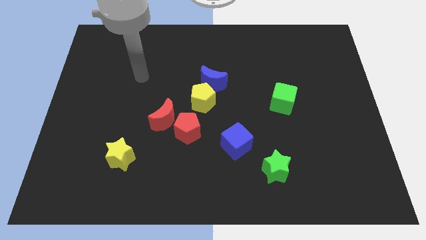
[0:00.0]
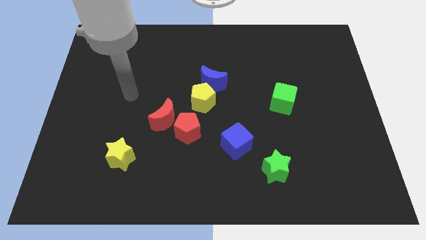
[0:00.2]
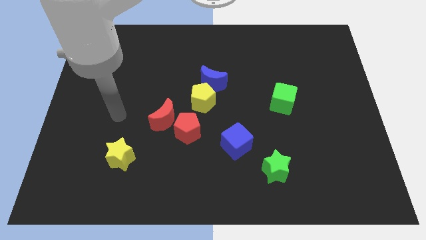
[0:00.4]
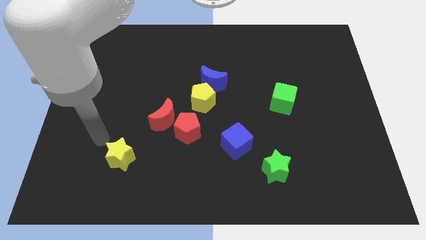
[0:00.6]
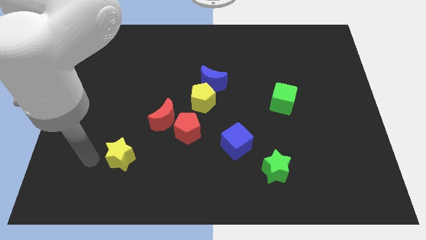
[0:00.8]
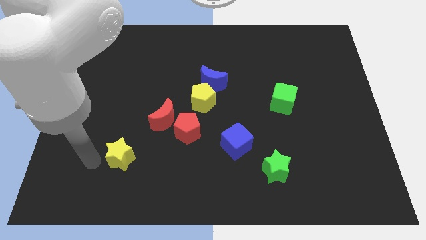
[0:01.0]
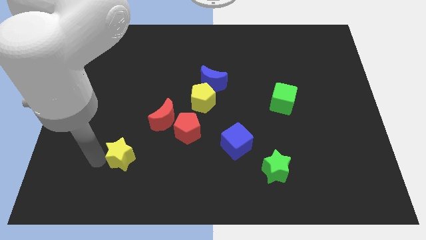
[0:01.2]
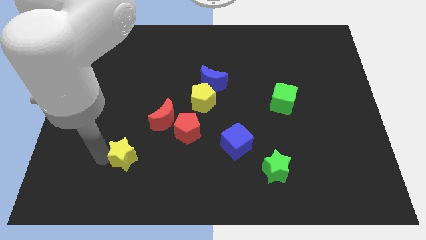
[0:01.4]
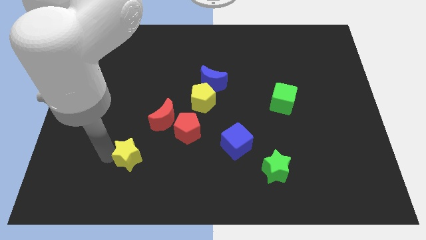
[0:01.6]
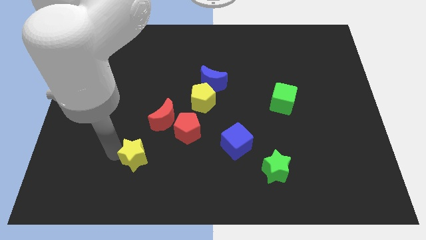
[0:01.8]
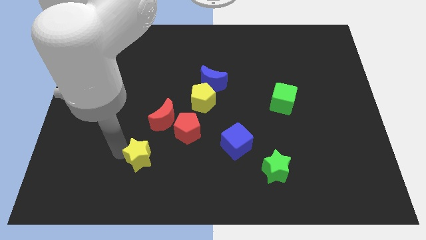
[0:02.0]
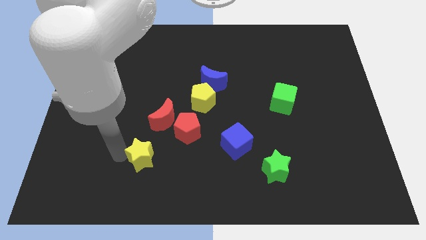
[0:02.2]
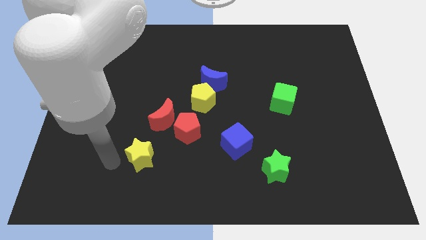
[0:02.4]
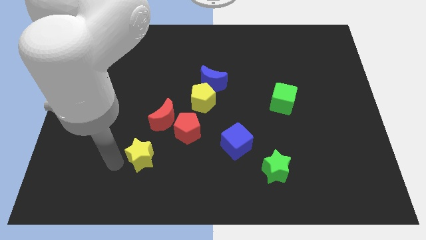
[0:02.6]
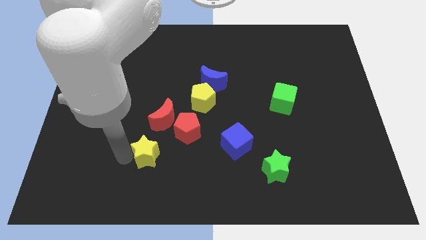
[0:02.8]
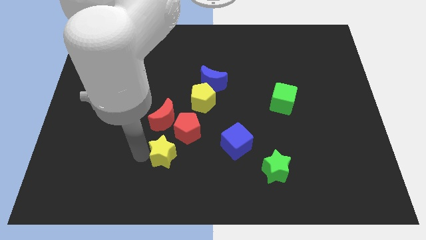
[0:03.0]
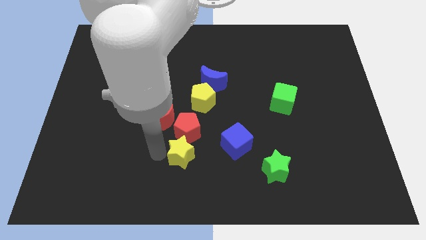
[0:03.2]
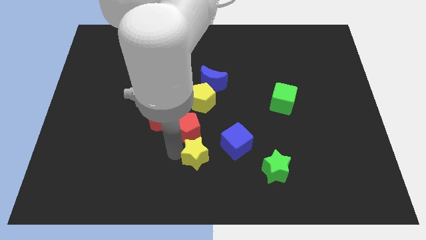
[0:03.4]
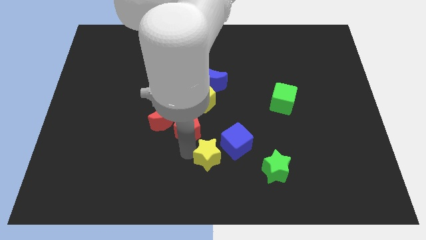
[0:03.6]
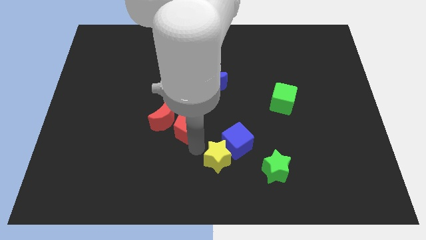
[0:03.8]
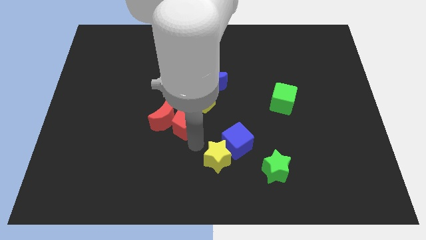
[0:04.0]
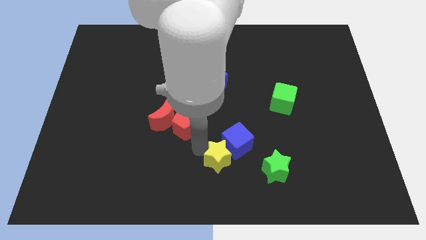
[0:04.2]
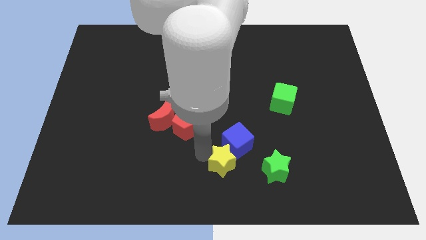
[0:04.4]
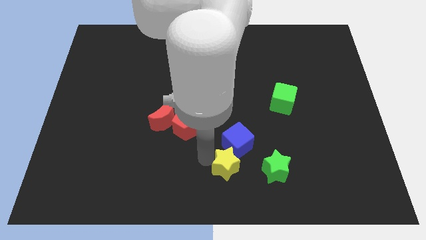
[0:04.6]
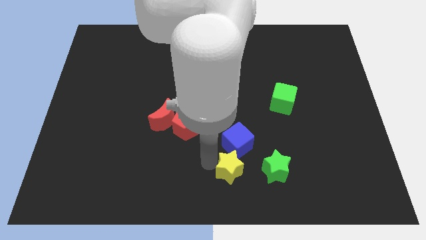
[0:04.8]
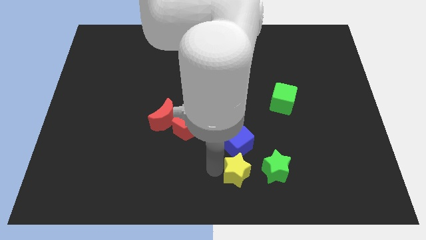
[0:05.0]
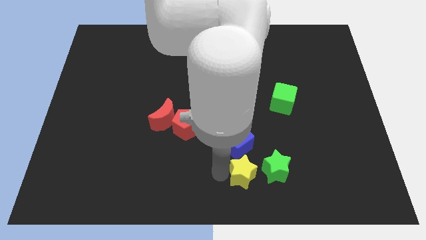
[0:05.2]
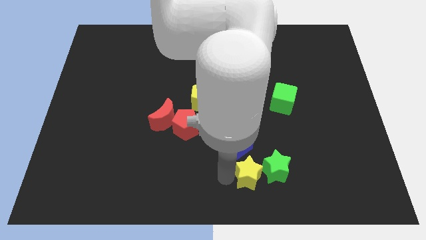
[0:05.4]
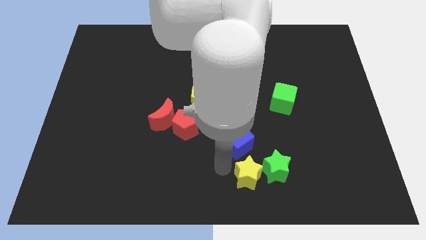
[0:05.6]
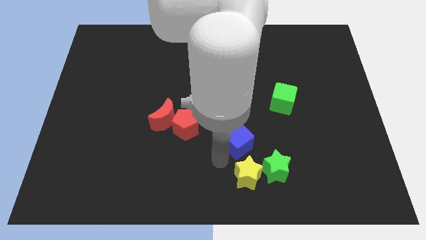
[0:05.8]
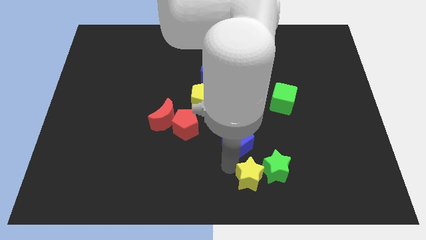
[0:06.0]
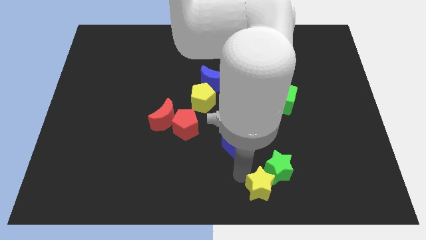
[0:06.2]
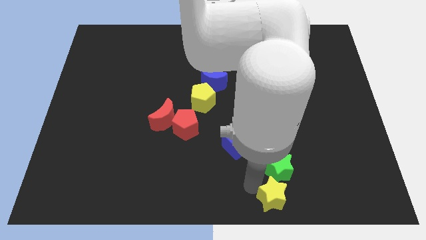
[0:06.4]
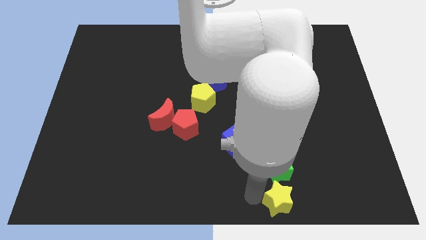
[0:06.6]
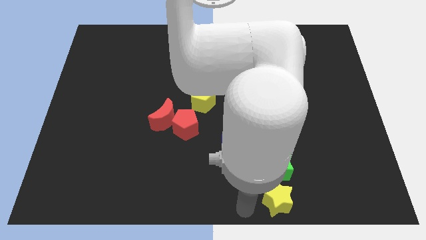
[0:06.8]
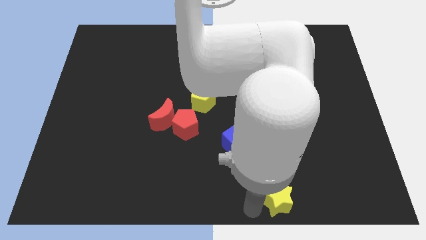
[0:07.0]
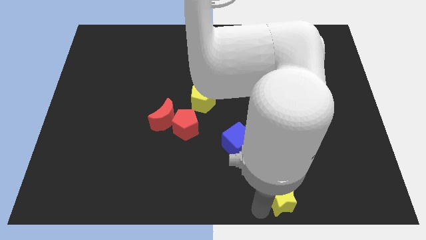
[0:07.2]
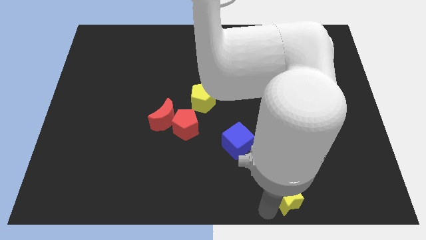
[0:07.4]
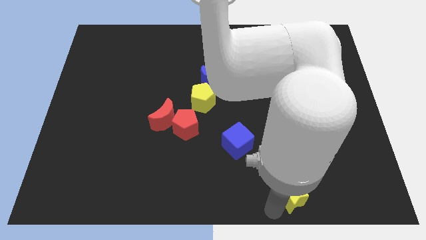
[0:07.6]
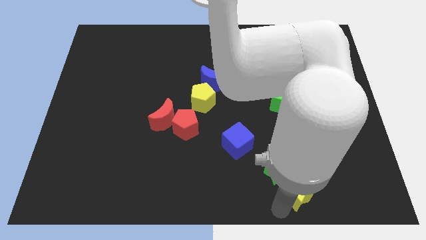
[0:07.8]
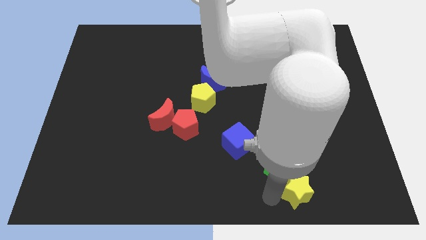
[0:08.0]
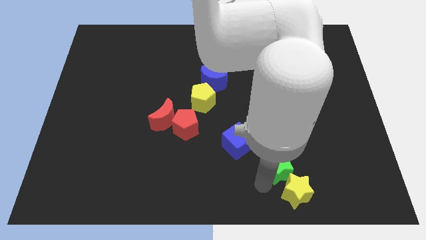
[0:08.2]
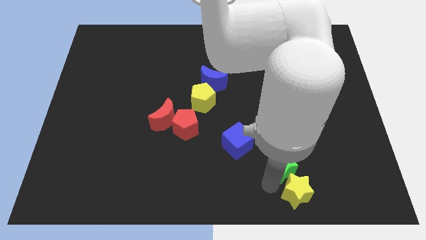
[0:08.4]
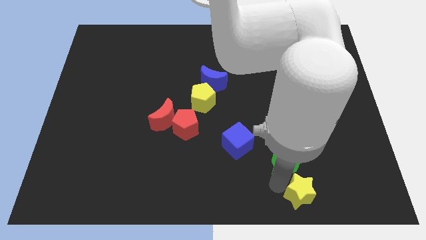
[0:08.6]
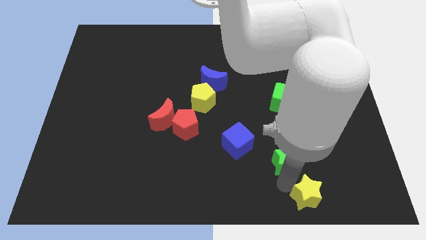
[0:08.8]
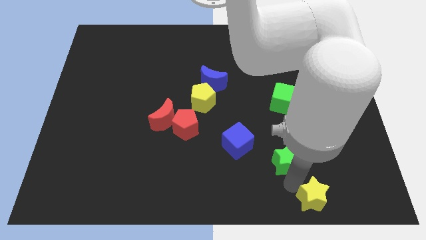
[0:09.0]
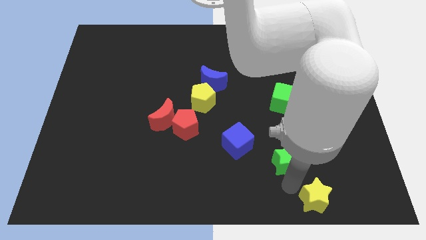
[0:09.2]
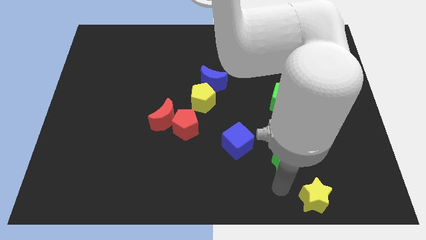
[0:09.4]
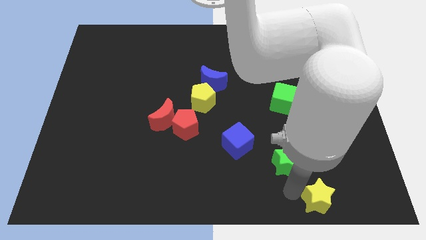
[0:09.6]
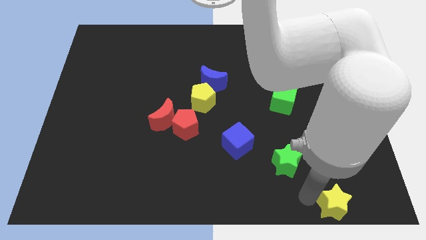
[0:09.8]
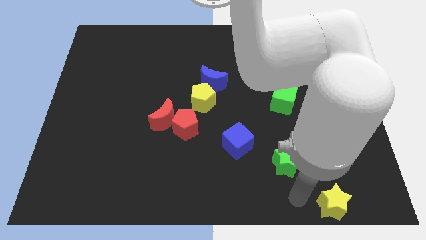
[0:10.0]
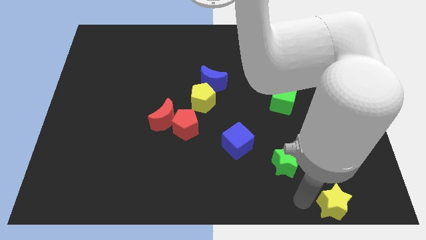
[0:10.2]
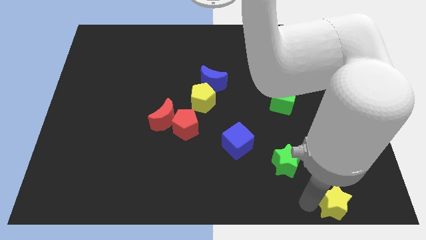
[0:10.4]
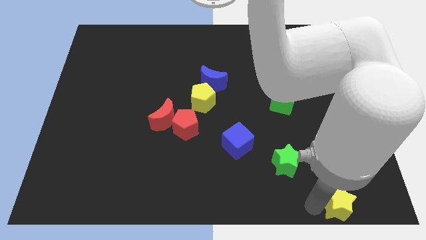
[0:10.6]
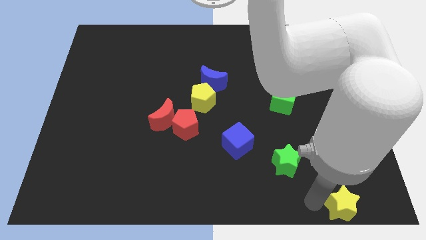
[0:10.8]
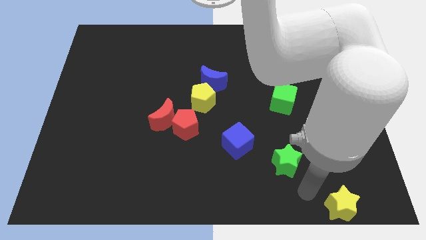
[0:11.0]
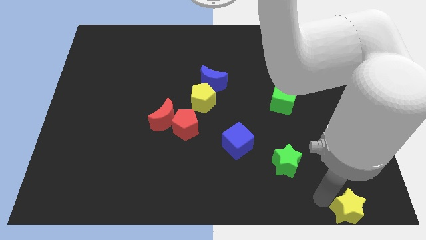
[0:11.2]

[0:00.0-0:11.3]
push the yellow star to the bottom right
